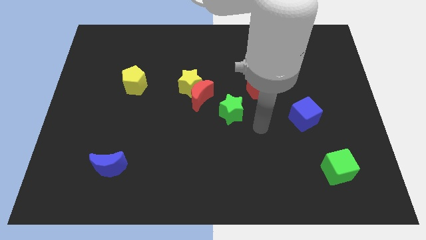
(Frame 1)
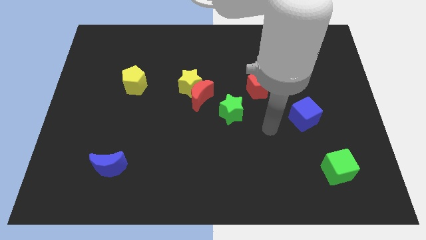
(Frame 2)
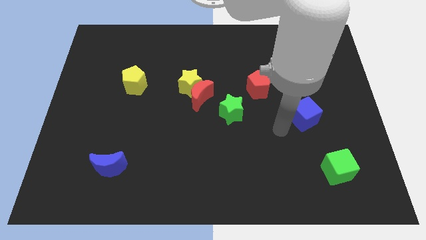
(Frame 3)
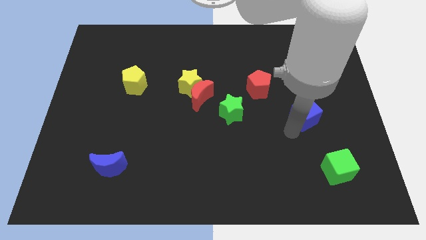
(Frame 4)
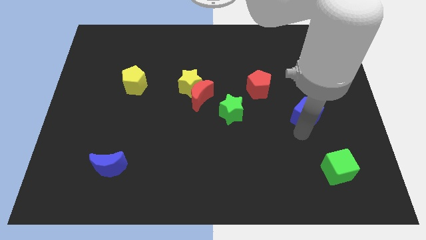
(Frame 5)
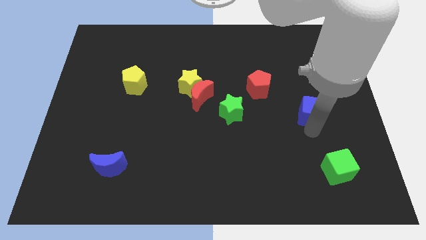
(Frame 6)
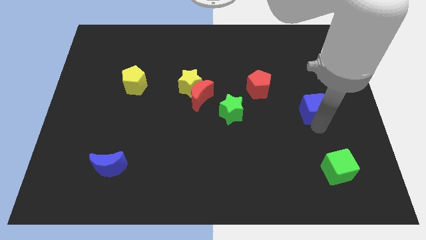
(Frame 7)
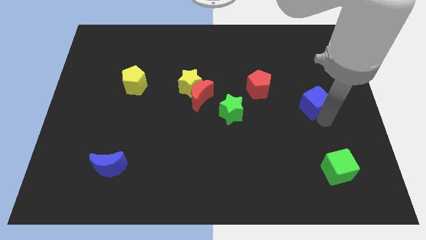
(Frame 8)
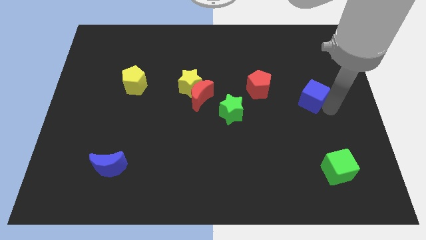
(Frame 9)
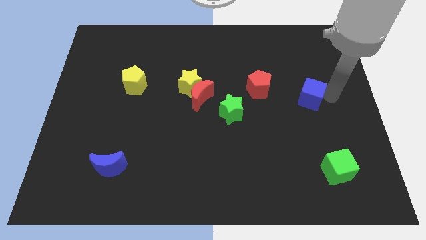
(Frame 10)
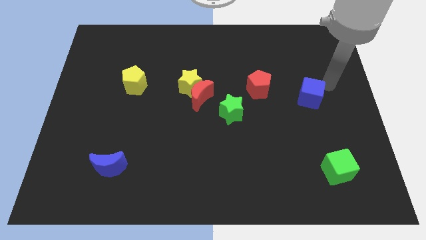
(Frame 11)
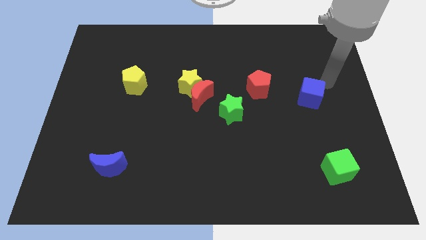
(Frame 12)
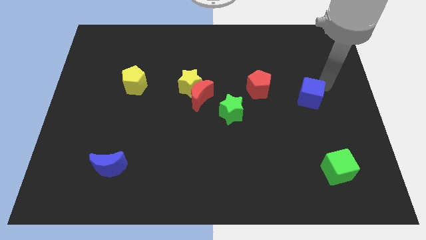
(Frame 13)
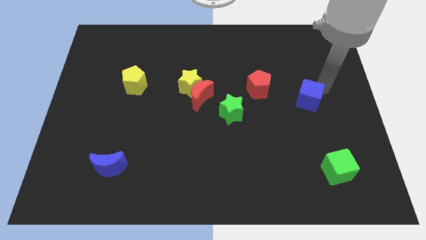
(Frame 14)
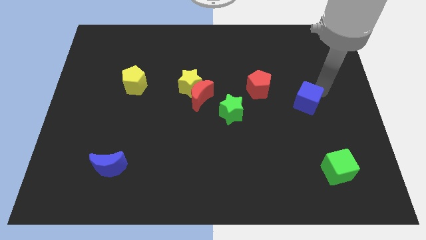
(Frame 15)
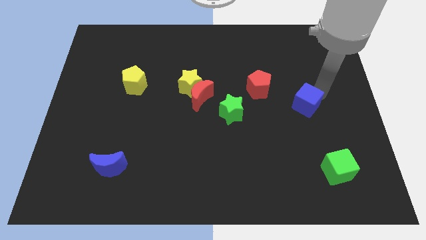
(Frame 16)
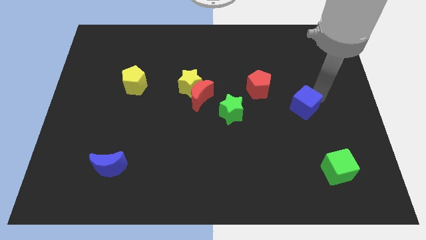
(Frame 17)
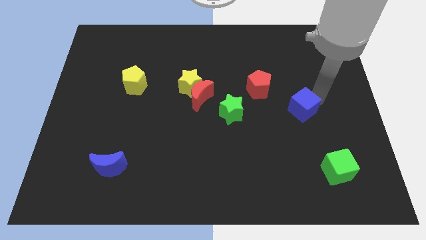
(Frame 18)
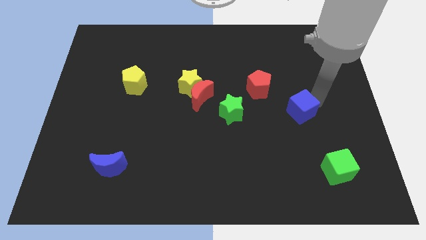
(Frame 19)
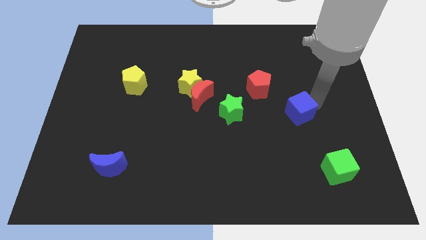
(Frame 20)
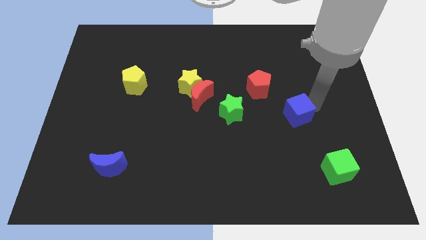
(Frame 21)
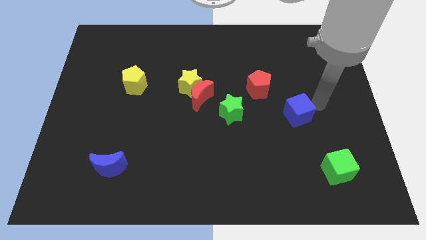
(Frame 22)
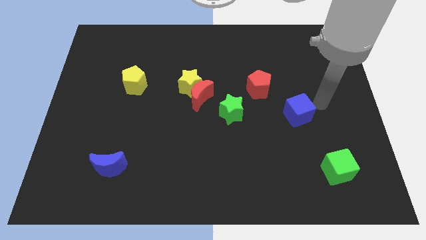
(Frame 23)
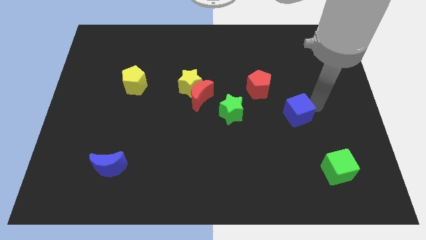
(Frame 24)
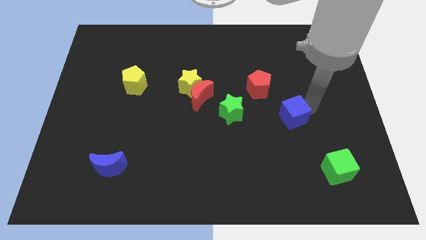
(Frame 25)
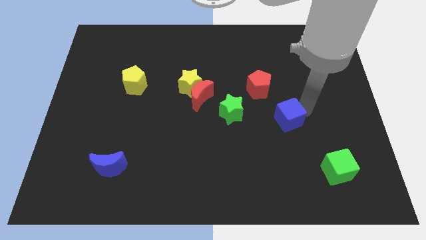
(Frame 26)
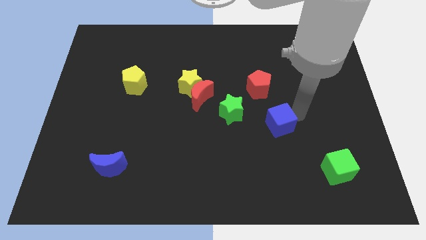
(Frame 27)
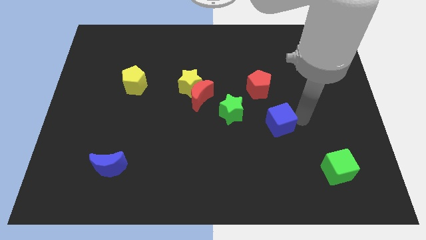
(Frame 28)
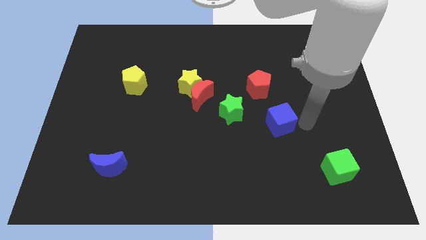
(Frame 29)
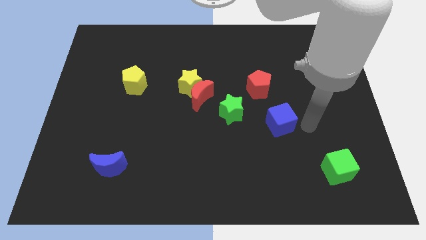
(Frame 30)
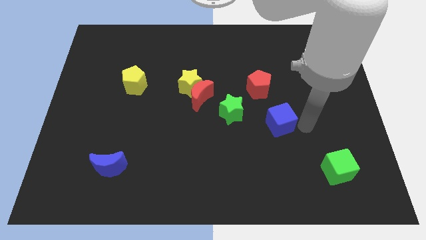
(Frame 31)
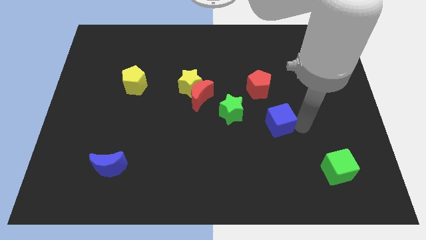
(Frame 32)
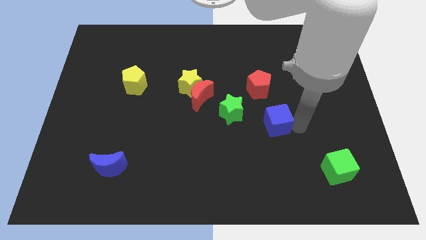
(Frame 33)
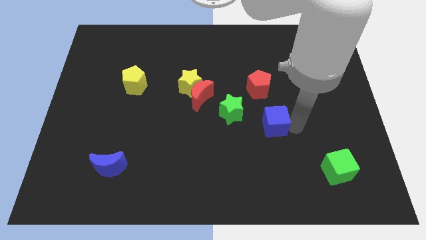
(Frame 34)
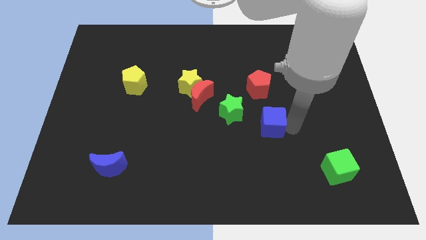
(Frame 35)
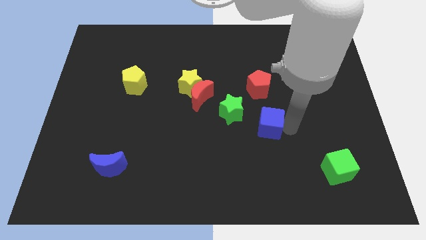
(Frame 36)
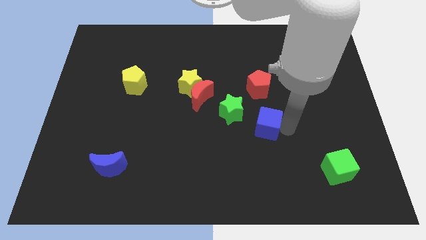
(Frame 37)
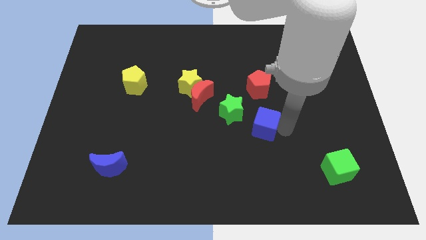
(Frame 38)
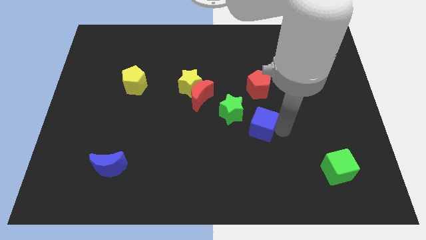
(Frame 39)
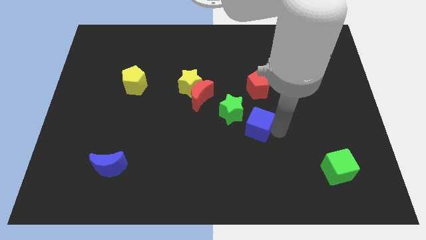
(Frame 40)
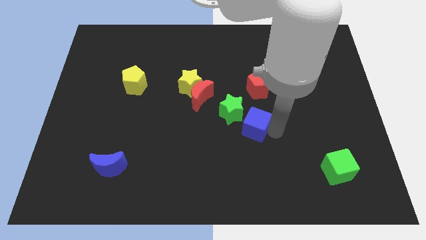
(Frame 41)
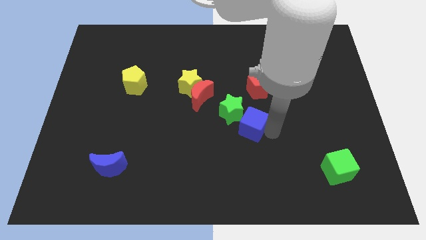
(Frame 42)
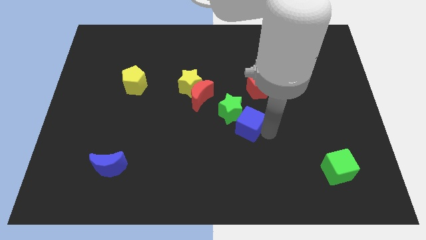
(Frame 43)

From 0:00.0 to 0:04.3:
slide the blue cube close to the green star

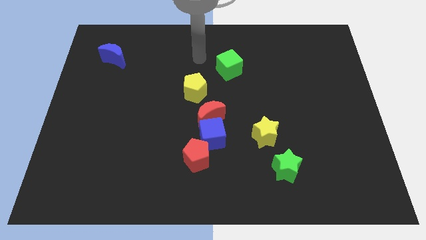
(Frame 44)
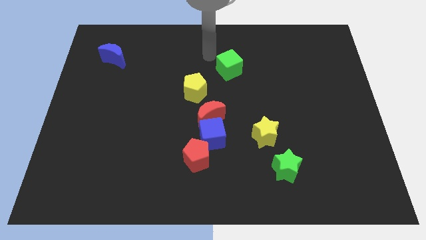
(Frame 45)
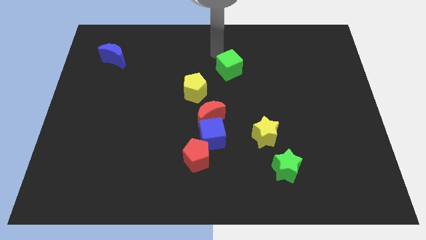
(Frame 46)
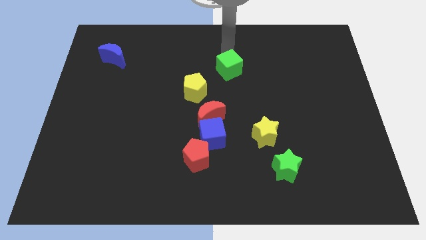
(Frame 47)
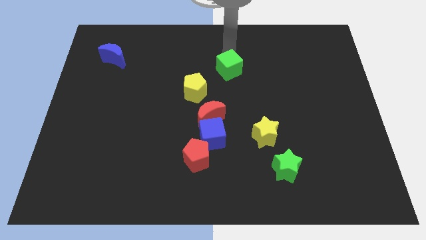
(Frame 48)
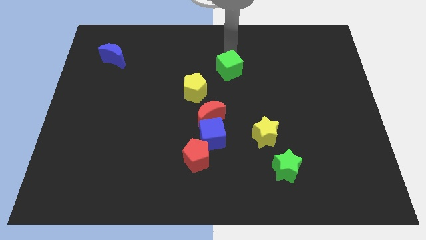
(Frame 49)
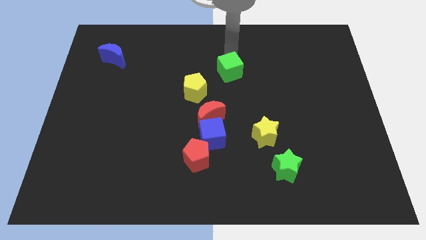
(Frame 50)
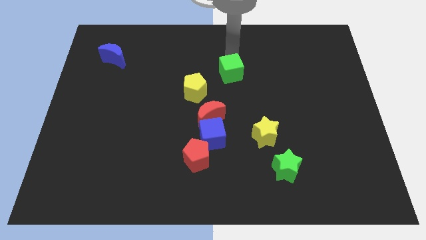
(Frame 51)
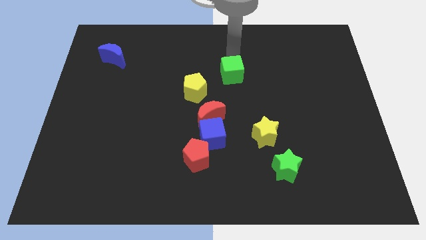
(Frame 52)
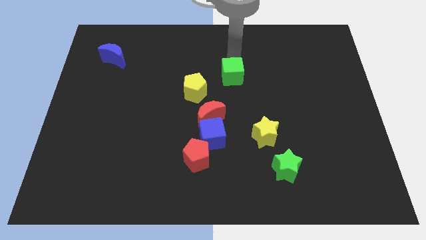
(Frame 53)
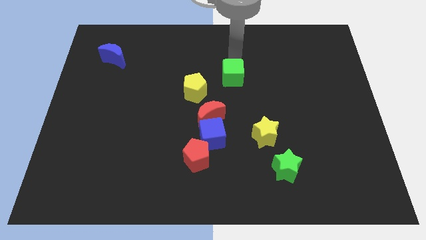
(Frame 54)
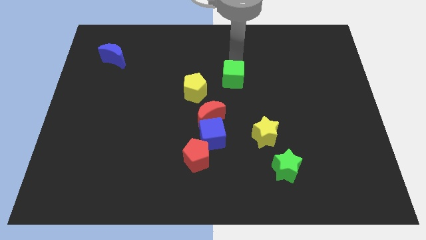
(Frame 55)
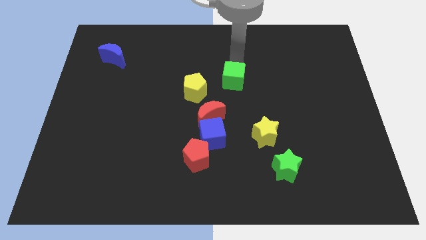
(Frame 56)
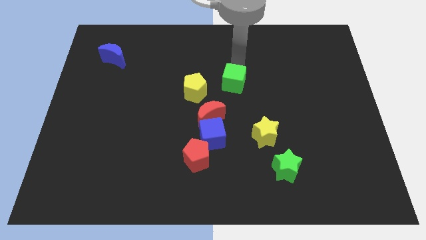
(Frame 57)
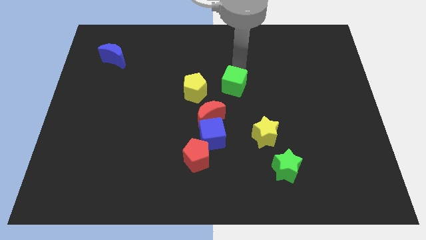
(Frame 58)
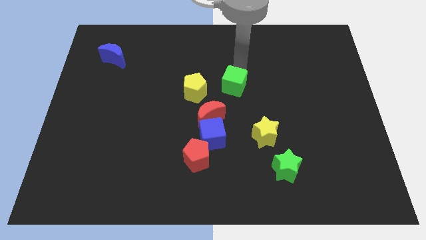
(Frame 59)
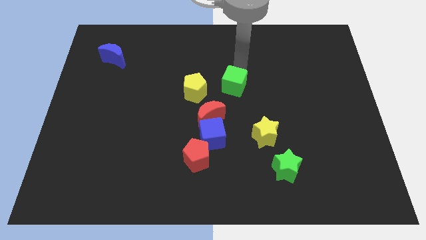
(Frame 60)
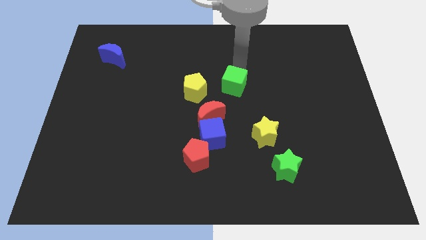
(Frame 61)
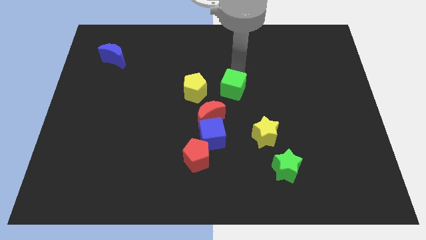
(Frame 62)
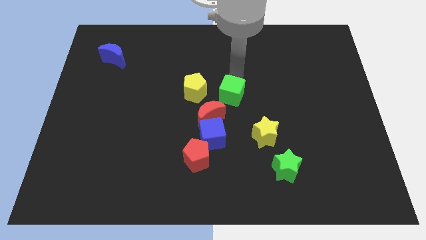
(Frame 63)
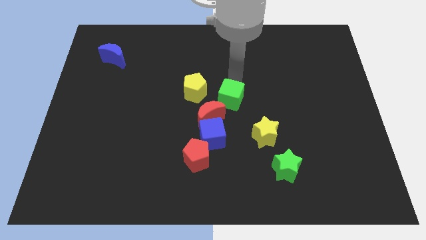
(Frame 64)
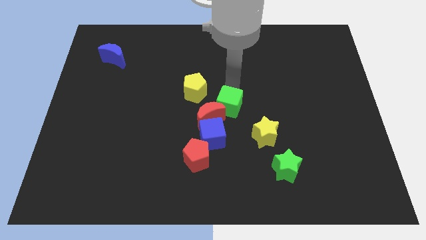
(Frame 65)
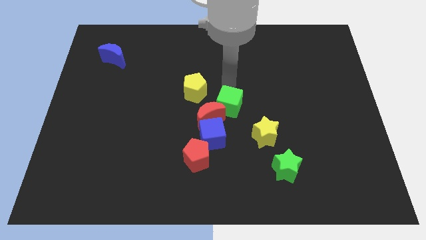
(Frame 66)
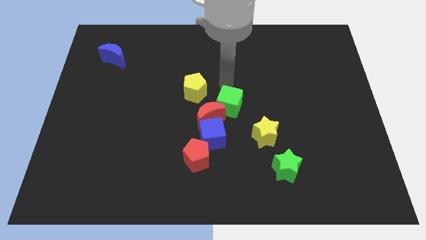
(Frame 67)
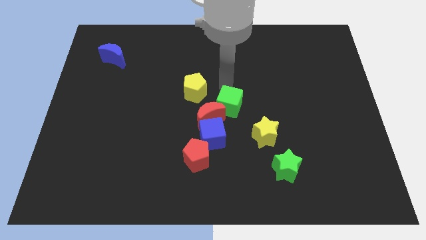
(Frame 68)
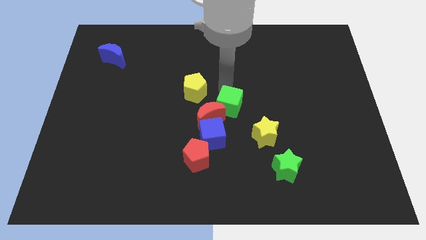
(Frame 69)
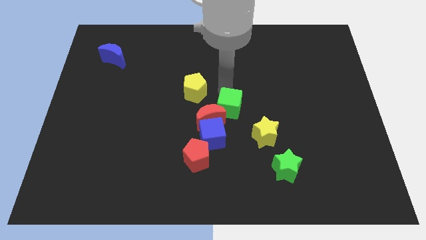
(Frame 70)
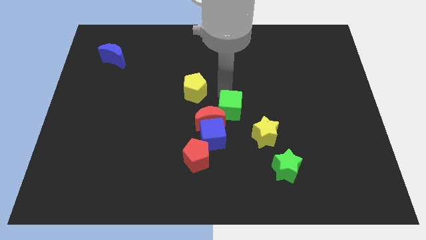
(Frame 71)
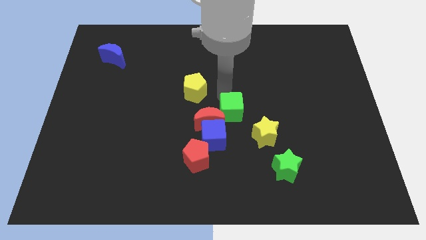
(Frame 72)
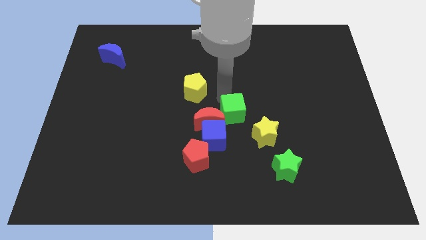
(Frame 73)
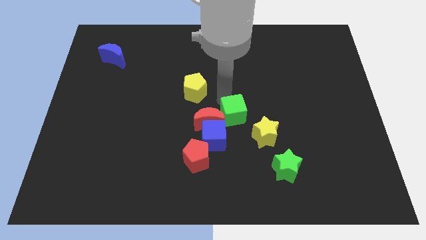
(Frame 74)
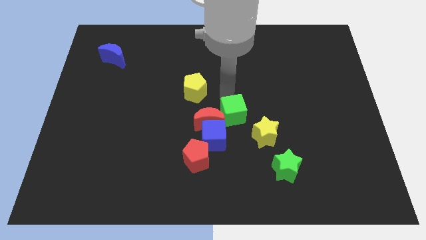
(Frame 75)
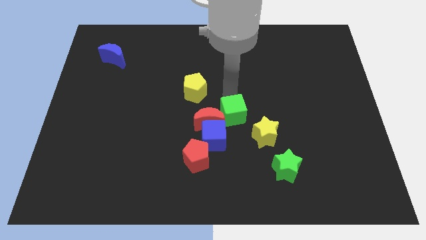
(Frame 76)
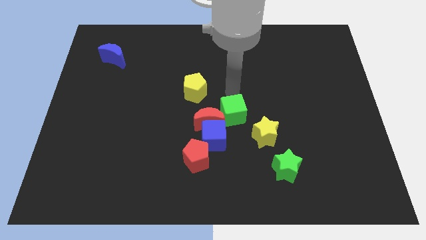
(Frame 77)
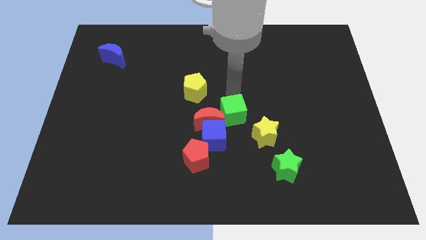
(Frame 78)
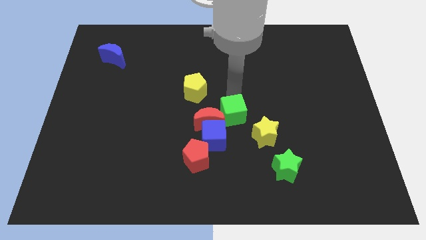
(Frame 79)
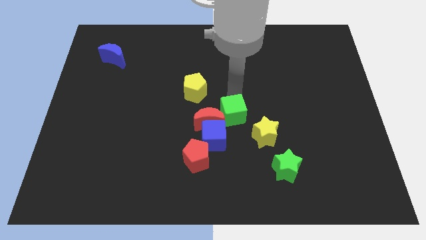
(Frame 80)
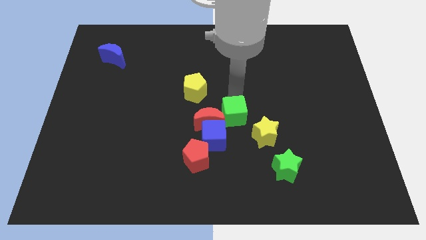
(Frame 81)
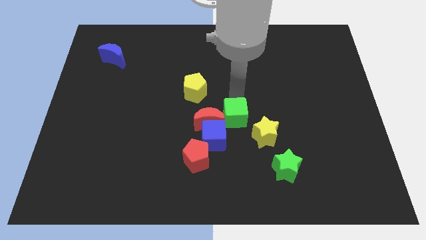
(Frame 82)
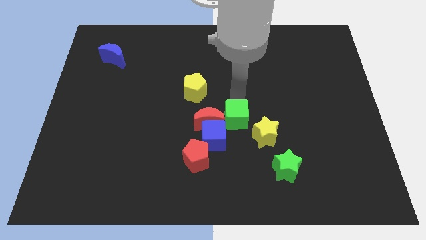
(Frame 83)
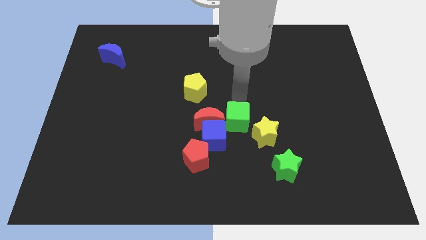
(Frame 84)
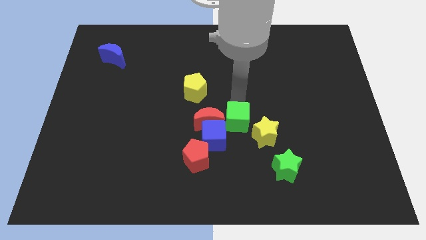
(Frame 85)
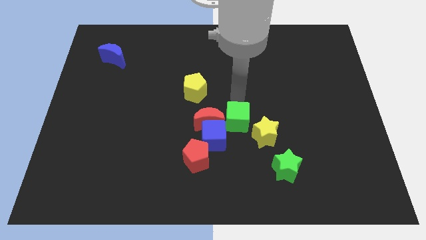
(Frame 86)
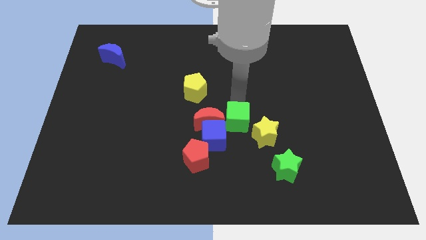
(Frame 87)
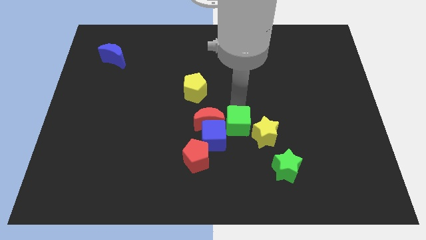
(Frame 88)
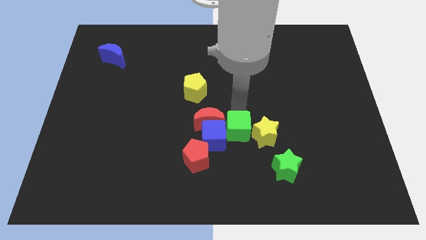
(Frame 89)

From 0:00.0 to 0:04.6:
push the green cube next to the blue cube
